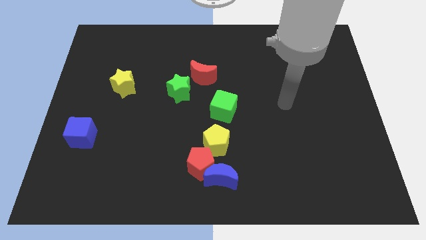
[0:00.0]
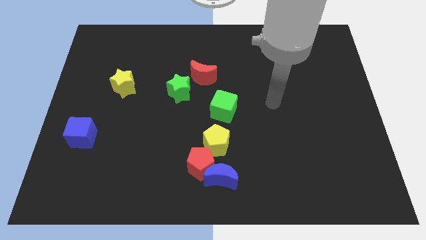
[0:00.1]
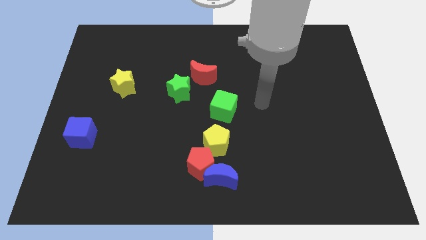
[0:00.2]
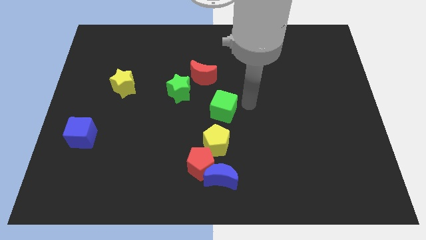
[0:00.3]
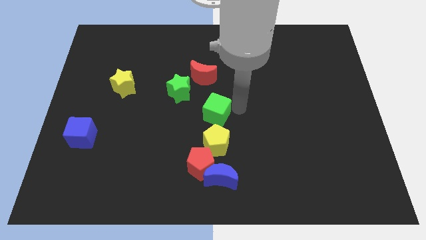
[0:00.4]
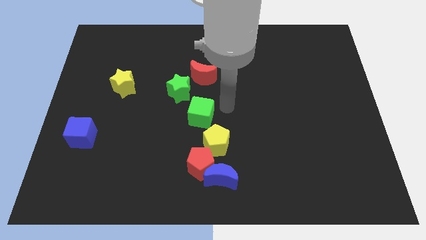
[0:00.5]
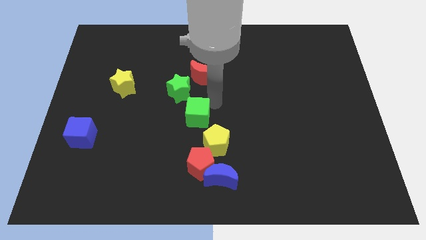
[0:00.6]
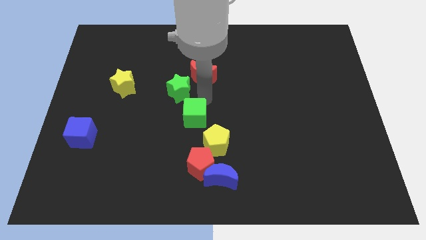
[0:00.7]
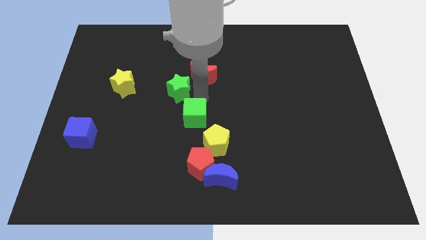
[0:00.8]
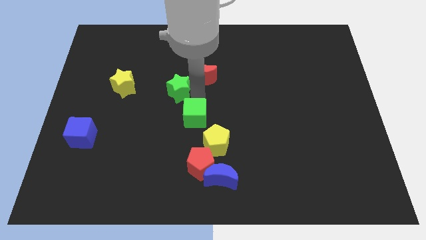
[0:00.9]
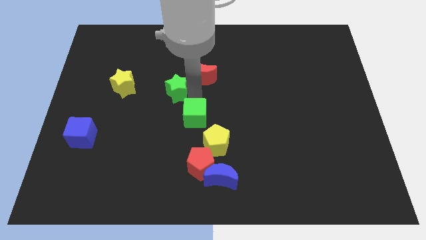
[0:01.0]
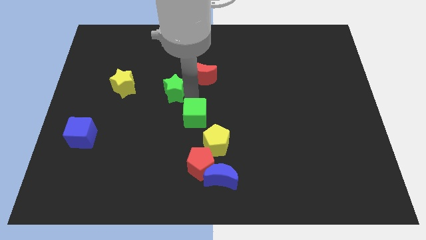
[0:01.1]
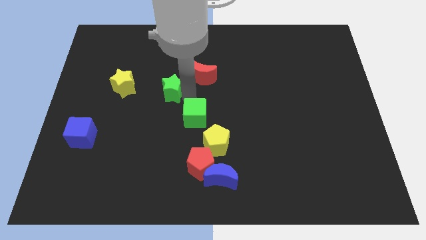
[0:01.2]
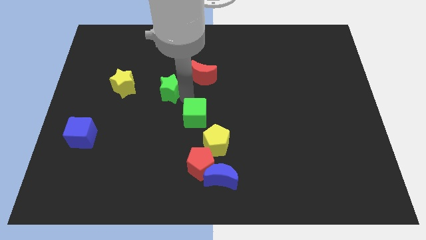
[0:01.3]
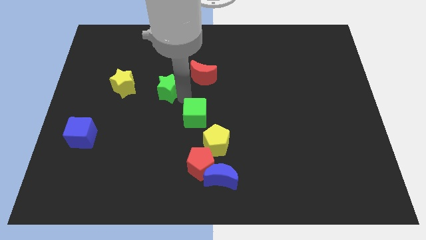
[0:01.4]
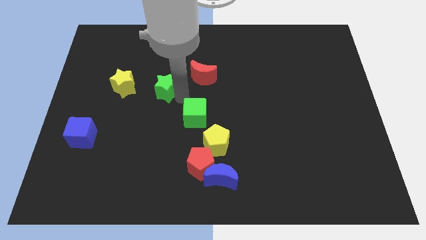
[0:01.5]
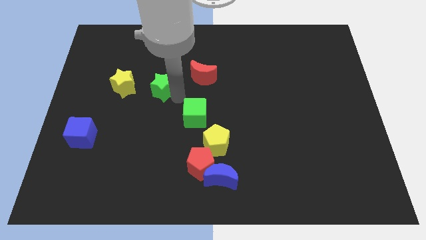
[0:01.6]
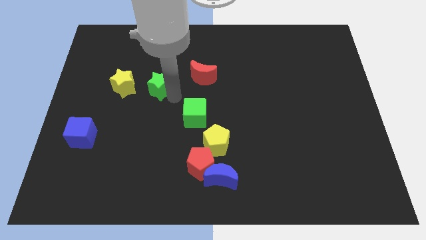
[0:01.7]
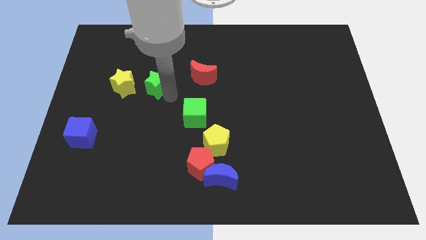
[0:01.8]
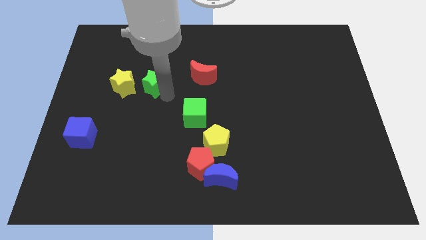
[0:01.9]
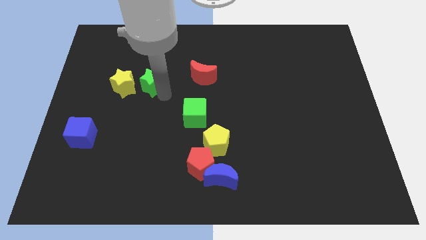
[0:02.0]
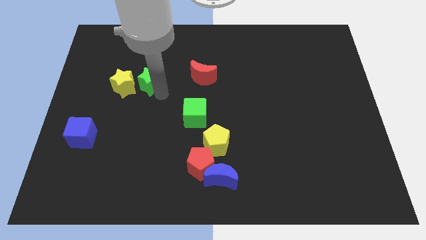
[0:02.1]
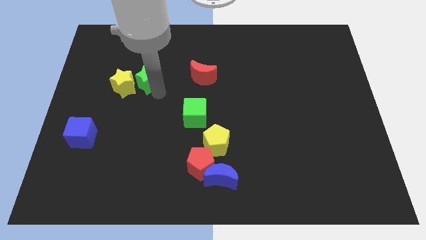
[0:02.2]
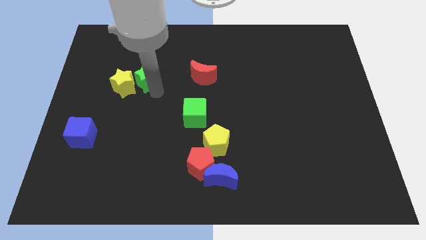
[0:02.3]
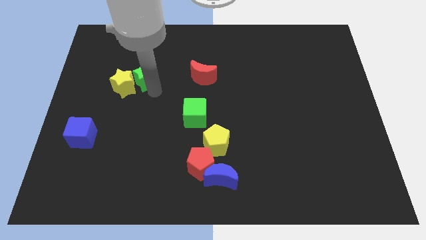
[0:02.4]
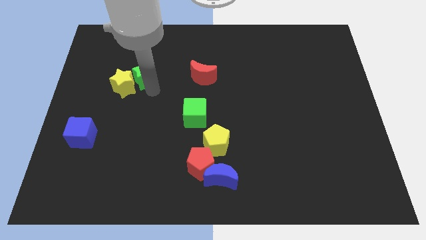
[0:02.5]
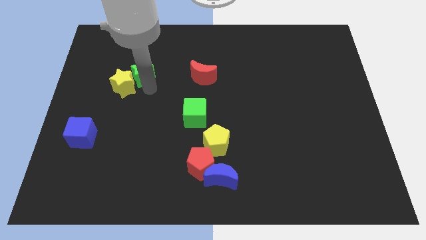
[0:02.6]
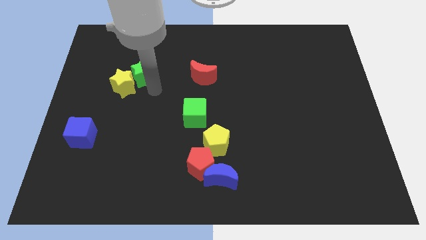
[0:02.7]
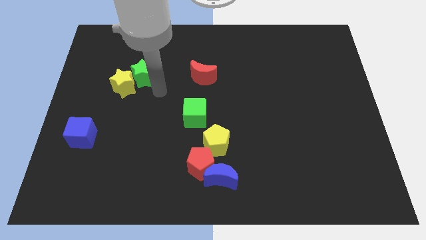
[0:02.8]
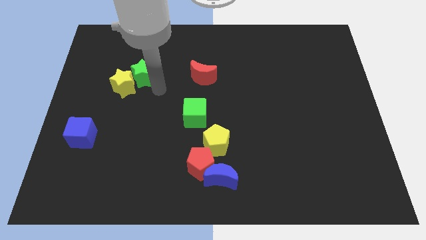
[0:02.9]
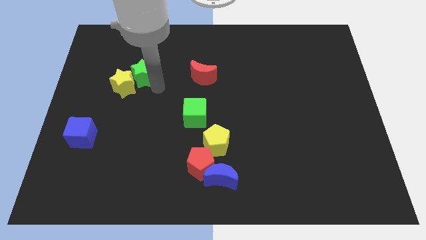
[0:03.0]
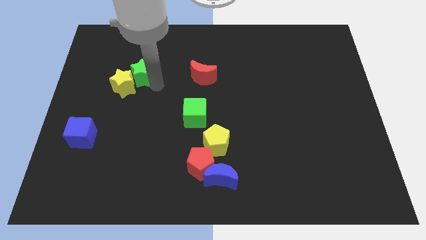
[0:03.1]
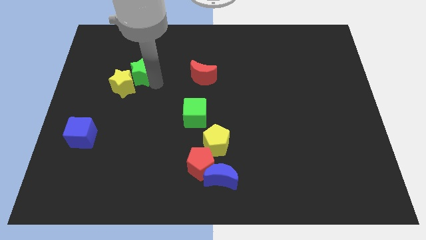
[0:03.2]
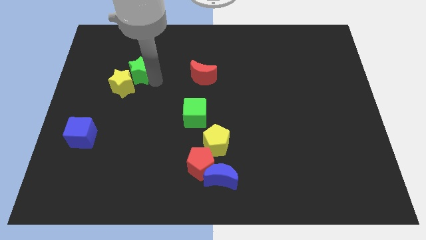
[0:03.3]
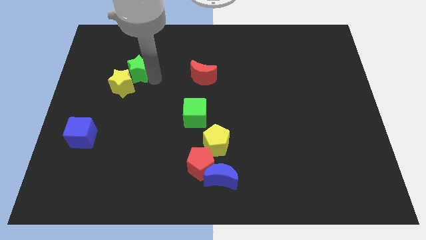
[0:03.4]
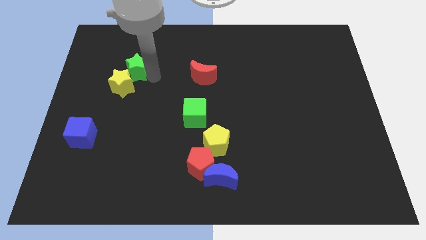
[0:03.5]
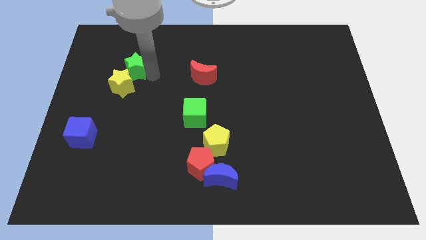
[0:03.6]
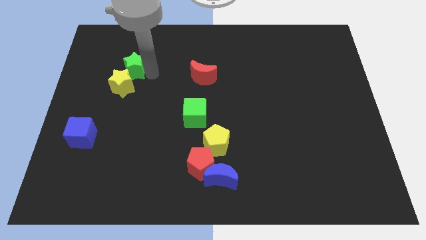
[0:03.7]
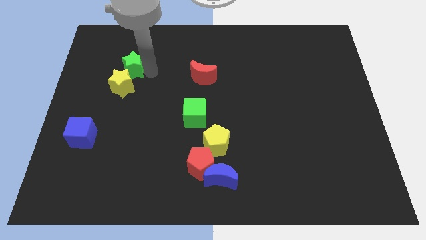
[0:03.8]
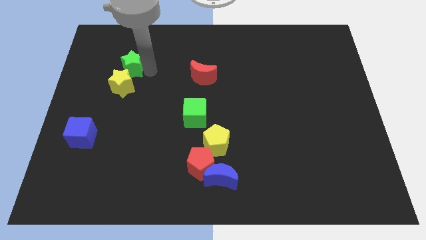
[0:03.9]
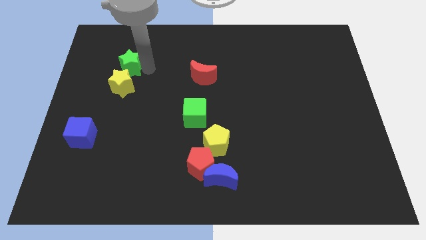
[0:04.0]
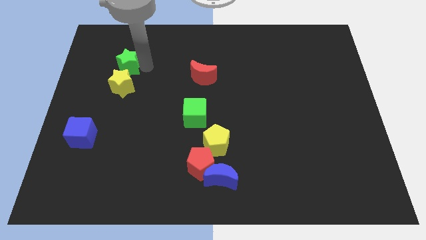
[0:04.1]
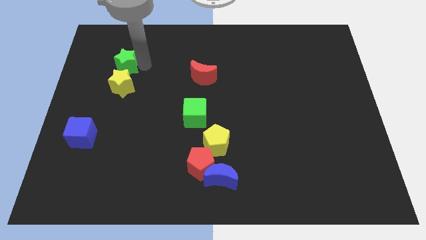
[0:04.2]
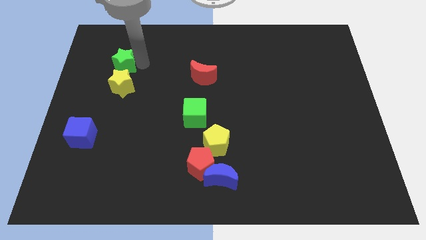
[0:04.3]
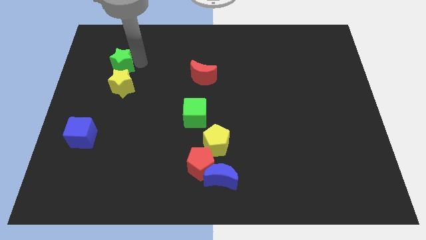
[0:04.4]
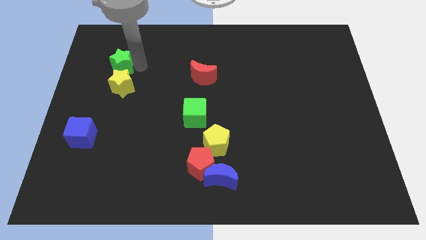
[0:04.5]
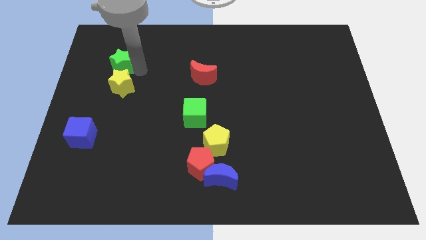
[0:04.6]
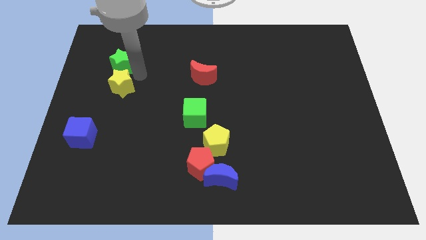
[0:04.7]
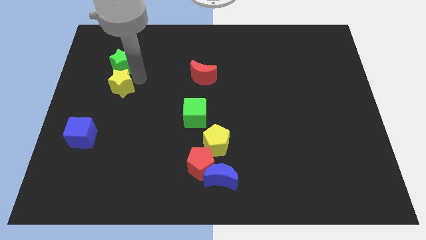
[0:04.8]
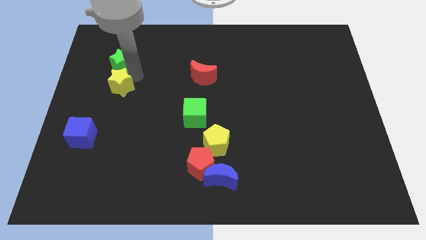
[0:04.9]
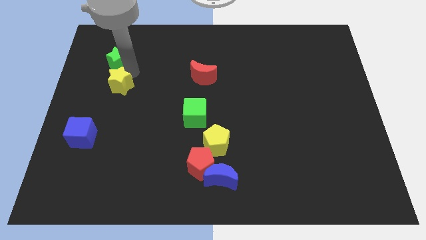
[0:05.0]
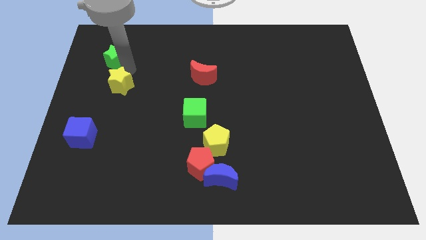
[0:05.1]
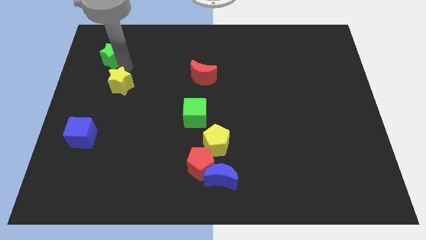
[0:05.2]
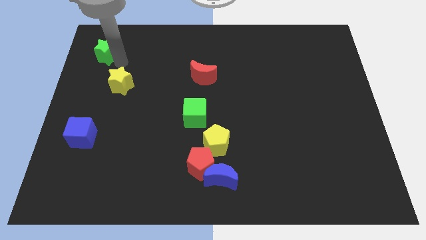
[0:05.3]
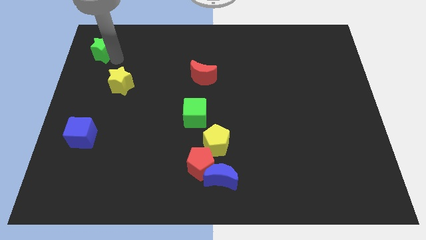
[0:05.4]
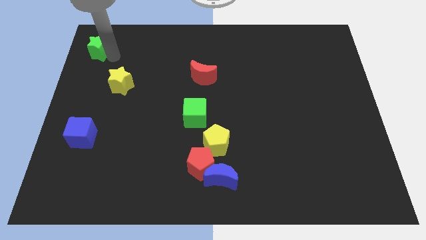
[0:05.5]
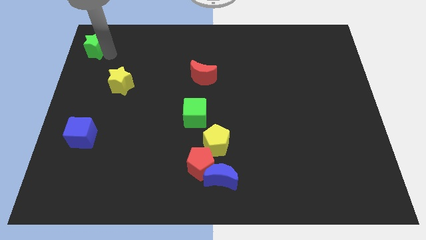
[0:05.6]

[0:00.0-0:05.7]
put the green star to the top left of the board

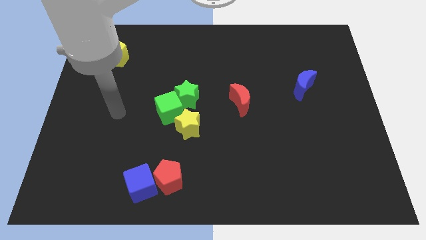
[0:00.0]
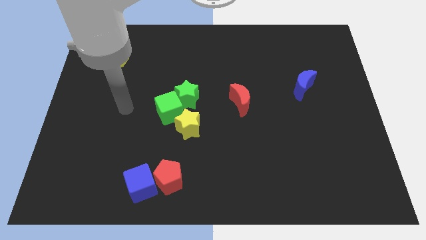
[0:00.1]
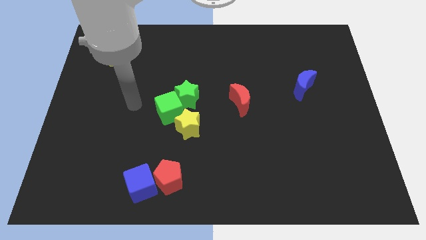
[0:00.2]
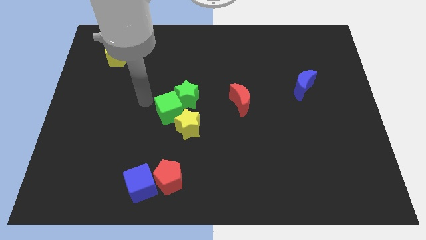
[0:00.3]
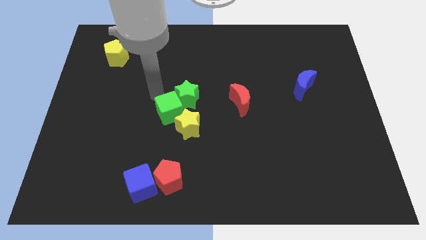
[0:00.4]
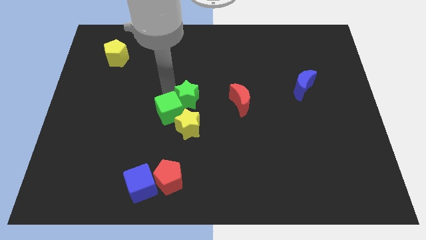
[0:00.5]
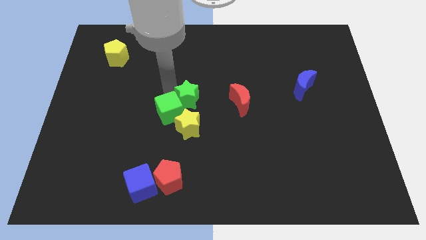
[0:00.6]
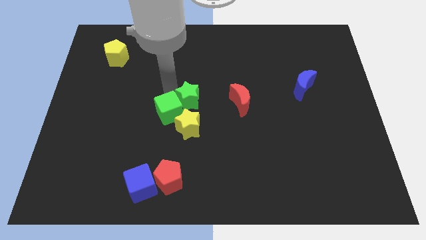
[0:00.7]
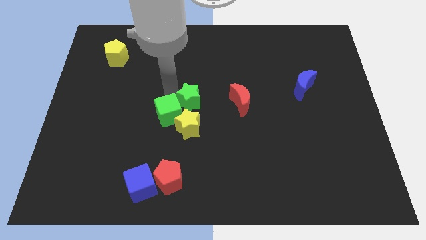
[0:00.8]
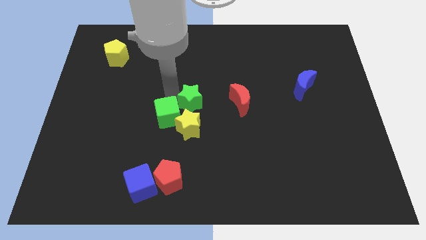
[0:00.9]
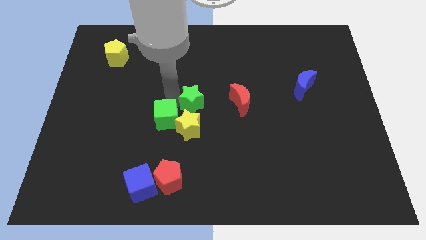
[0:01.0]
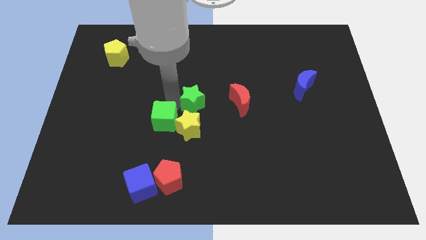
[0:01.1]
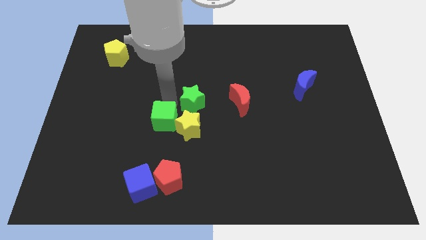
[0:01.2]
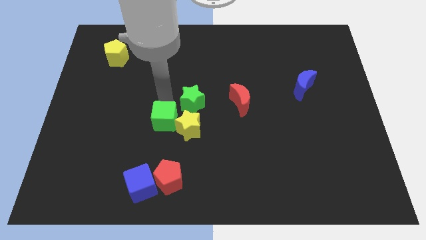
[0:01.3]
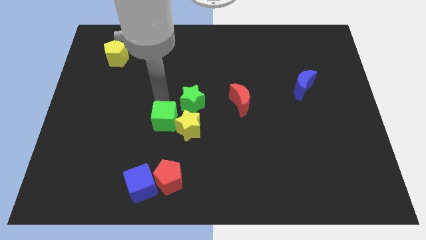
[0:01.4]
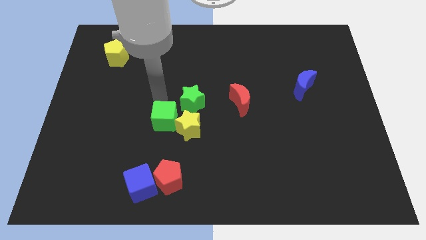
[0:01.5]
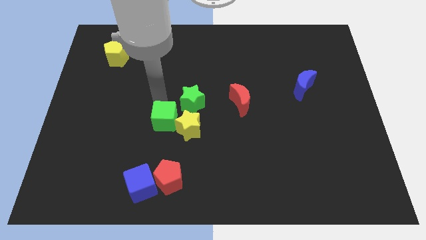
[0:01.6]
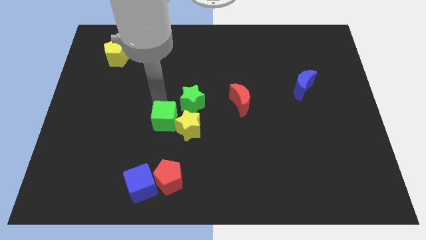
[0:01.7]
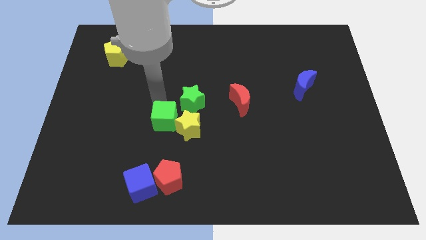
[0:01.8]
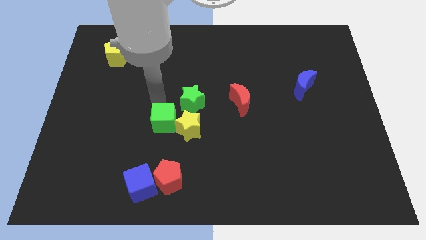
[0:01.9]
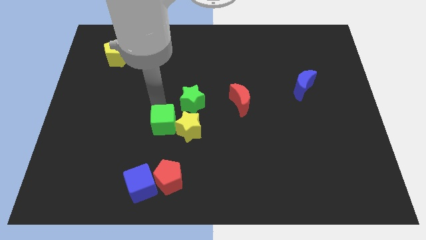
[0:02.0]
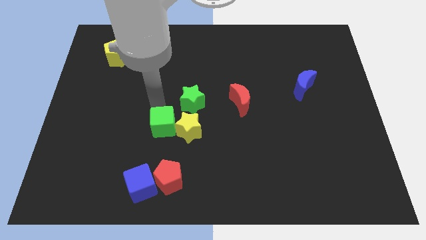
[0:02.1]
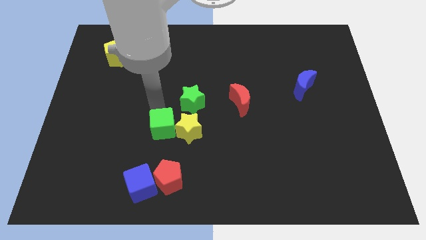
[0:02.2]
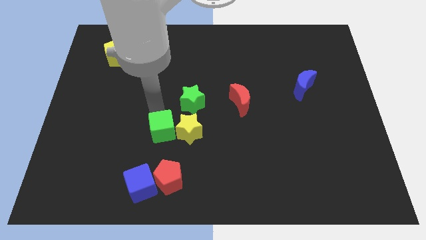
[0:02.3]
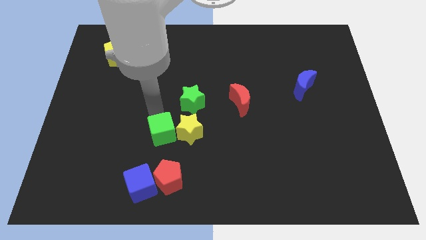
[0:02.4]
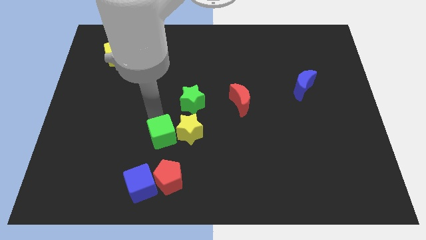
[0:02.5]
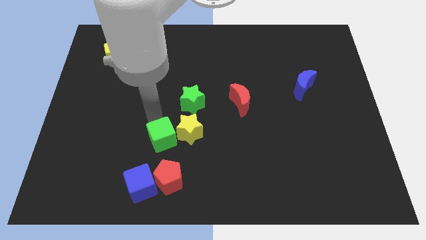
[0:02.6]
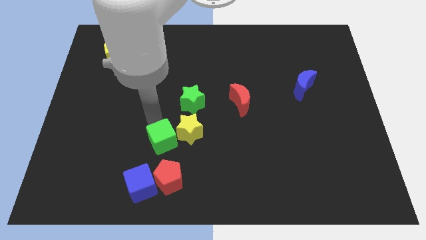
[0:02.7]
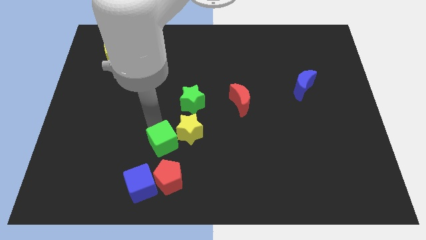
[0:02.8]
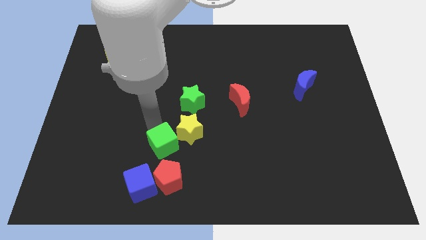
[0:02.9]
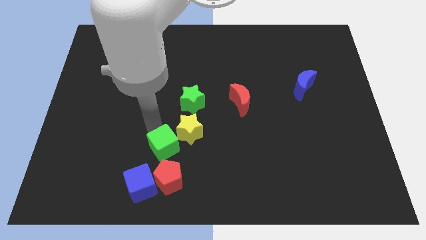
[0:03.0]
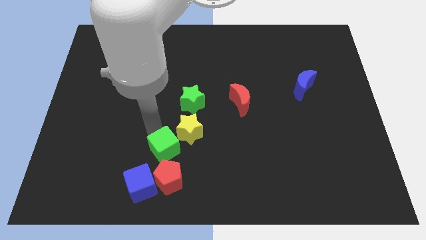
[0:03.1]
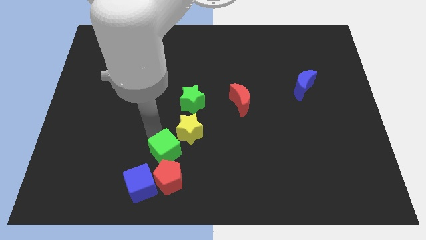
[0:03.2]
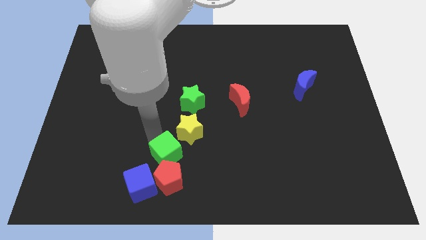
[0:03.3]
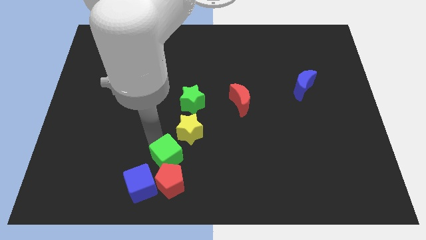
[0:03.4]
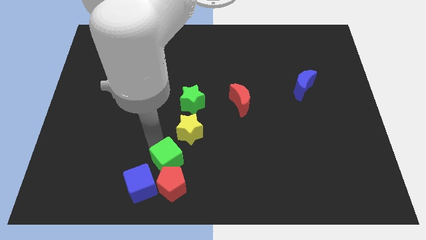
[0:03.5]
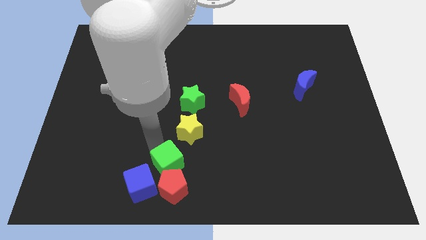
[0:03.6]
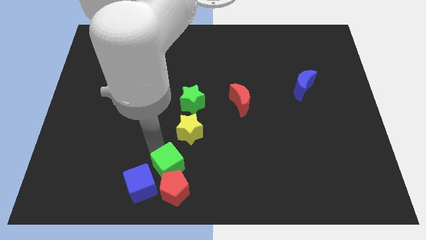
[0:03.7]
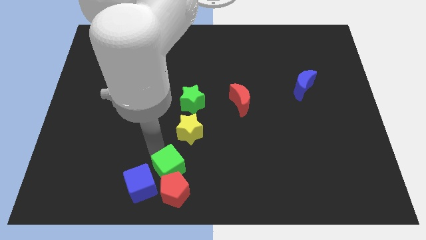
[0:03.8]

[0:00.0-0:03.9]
move the green cube to the bottom
